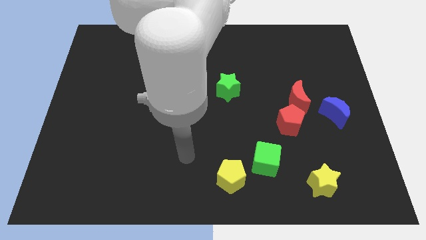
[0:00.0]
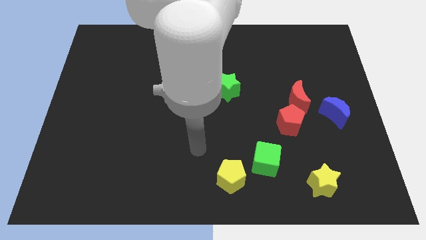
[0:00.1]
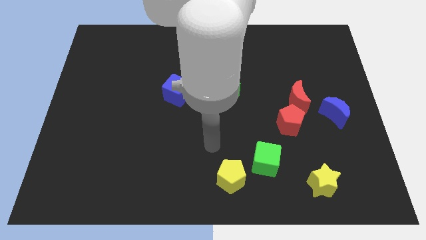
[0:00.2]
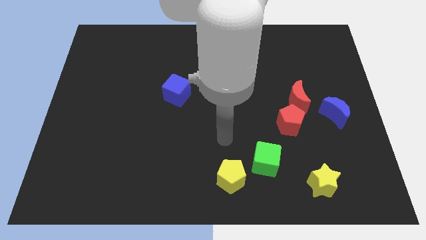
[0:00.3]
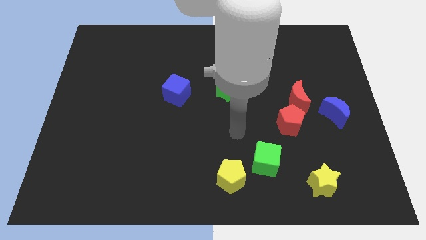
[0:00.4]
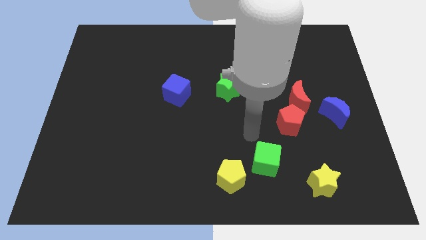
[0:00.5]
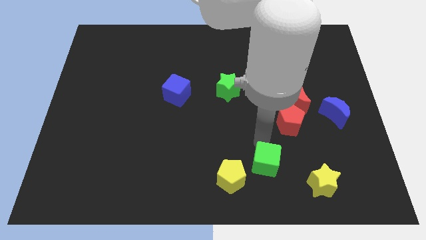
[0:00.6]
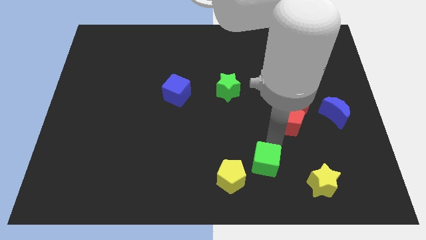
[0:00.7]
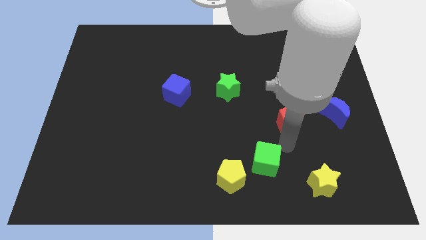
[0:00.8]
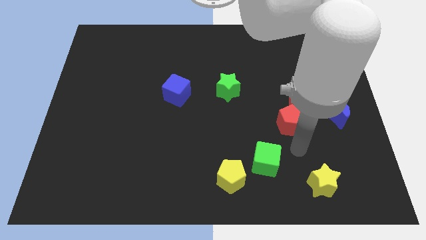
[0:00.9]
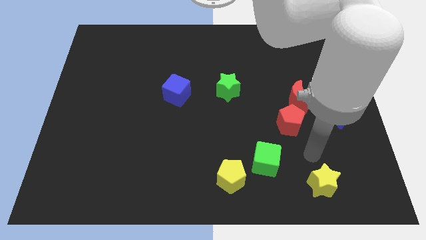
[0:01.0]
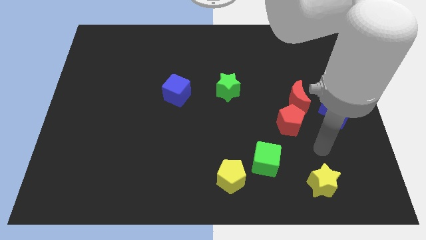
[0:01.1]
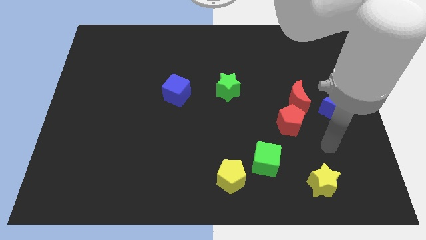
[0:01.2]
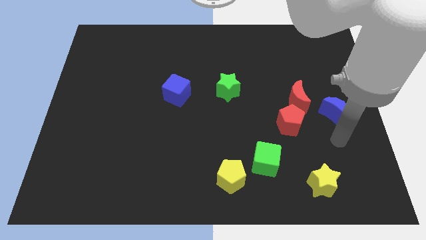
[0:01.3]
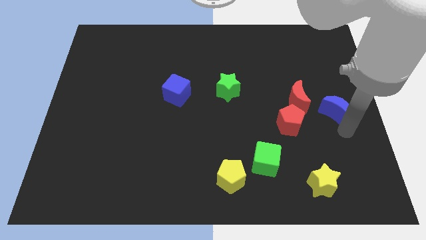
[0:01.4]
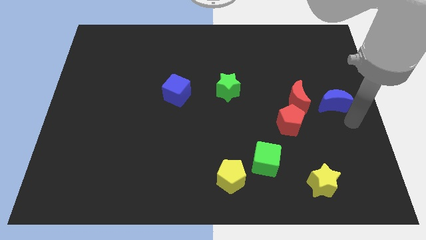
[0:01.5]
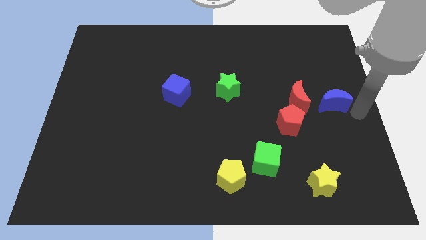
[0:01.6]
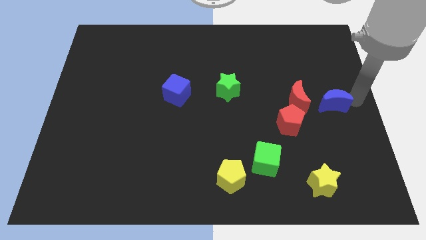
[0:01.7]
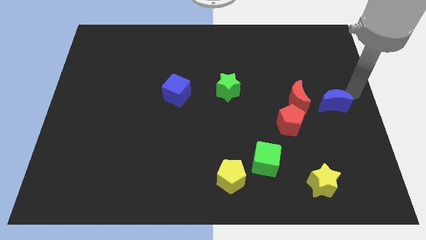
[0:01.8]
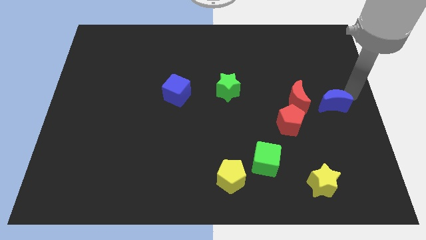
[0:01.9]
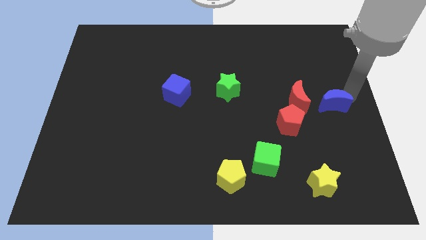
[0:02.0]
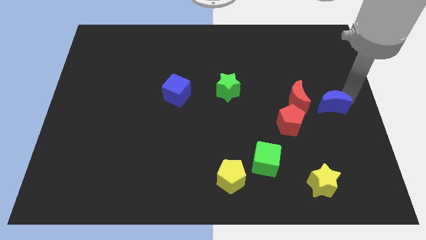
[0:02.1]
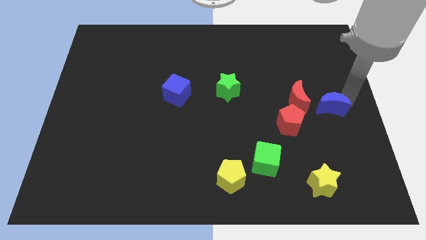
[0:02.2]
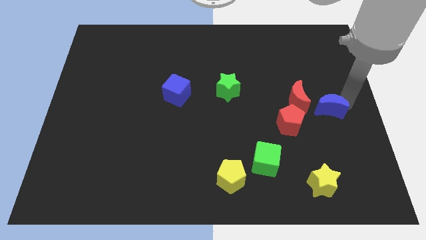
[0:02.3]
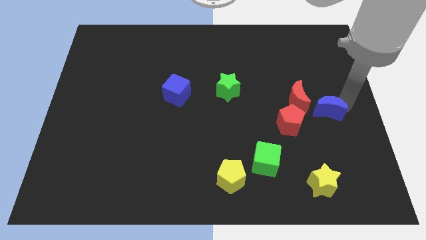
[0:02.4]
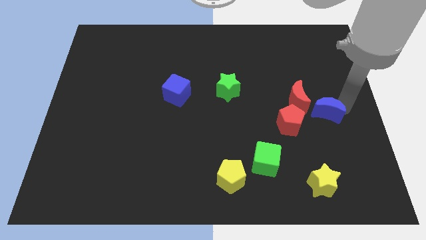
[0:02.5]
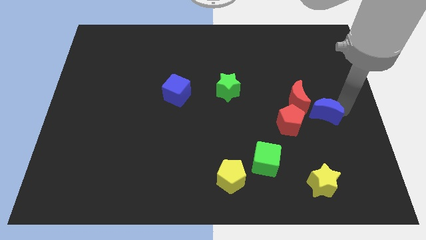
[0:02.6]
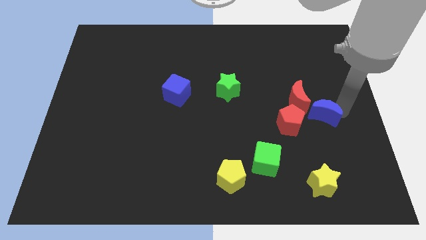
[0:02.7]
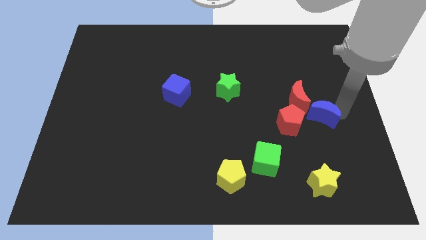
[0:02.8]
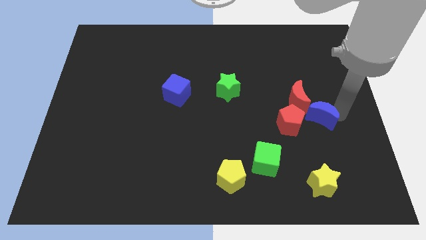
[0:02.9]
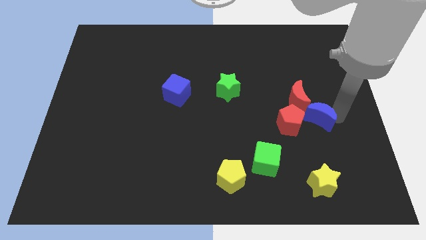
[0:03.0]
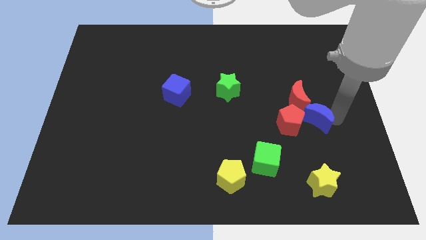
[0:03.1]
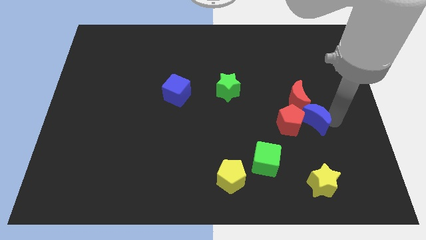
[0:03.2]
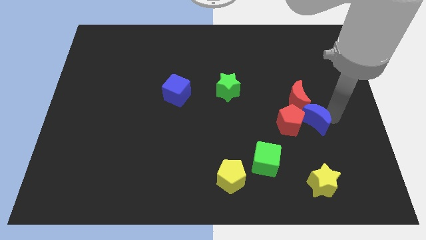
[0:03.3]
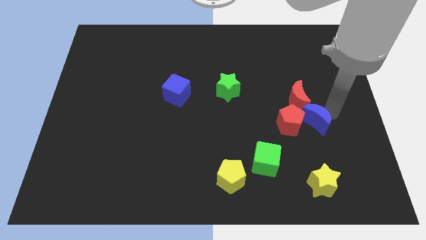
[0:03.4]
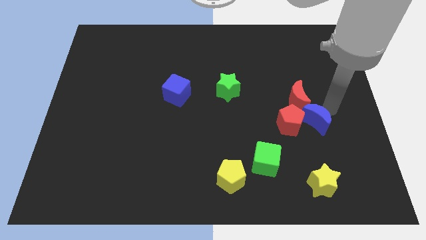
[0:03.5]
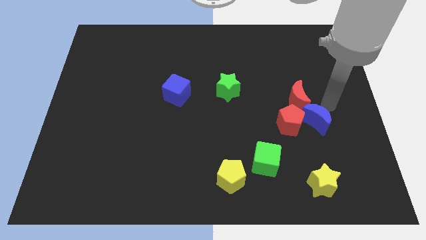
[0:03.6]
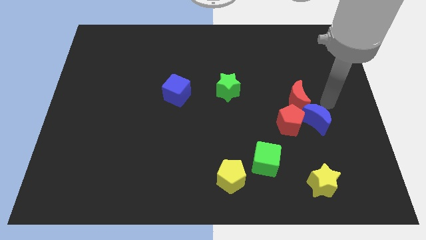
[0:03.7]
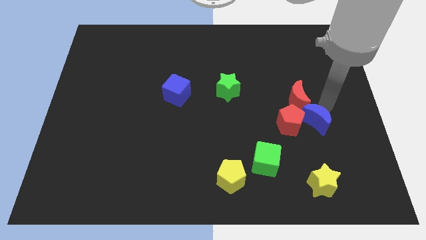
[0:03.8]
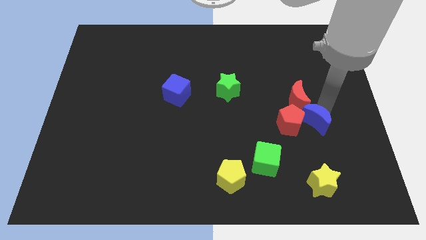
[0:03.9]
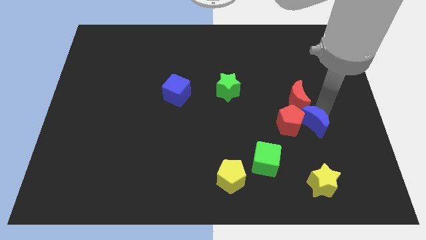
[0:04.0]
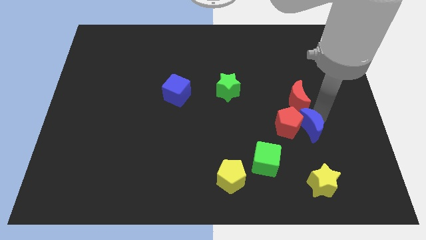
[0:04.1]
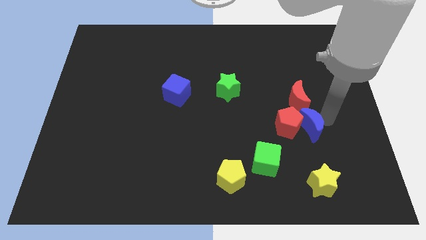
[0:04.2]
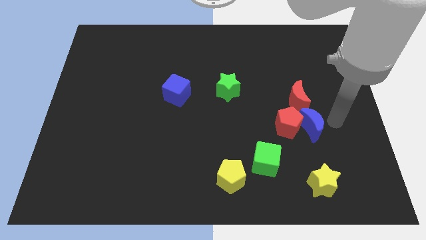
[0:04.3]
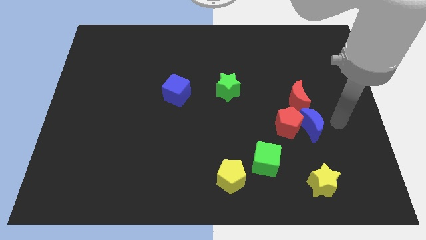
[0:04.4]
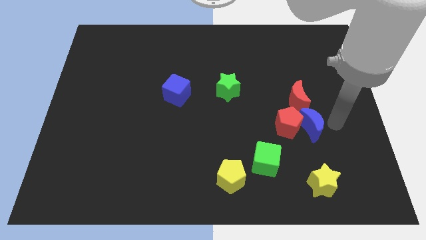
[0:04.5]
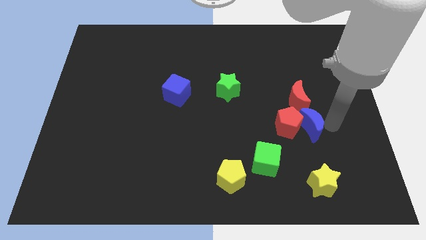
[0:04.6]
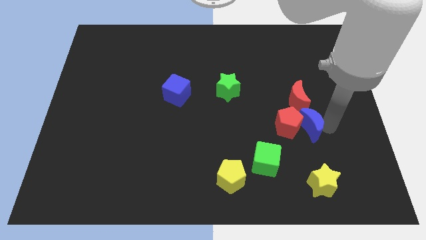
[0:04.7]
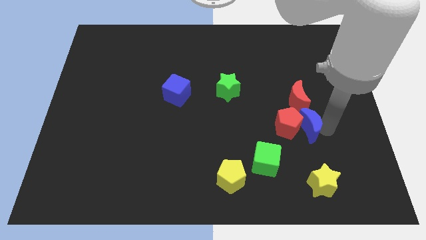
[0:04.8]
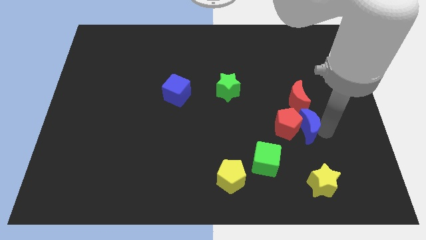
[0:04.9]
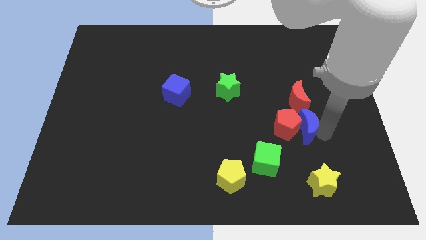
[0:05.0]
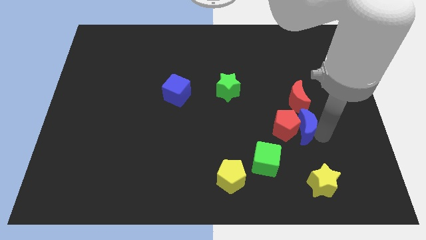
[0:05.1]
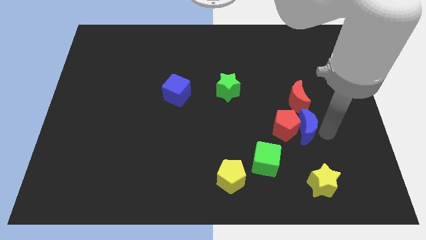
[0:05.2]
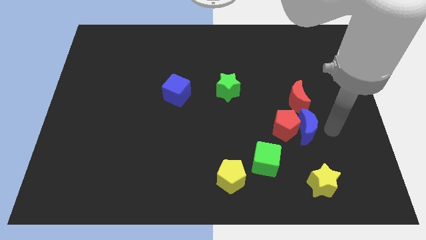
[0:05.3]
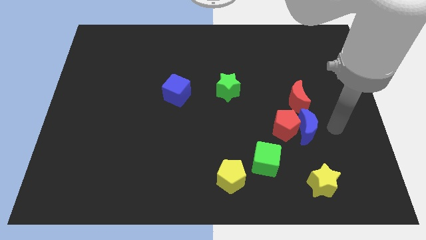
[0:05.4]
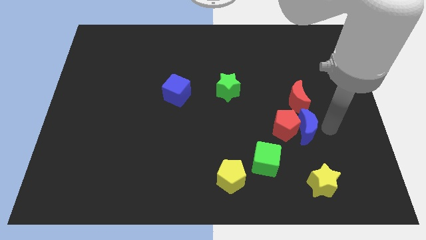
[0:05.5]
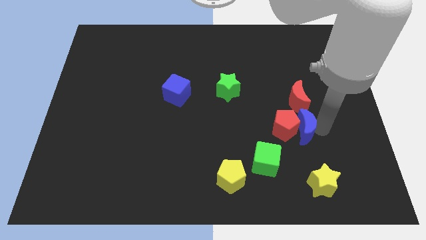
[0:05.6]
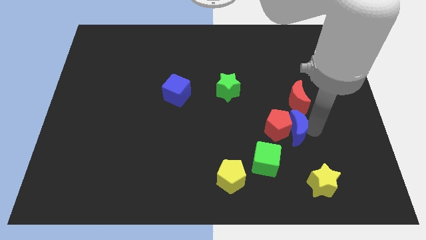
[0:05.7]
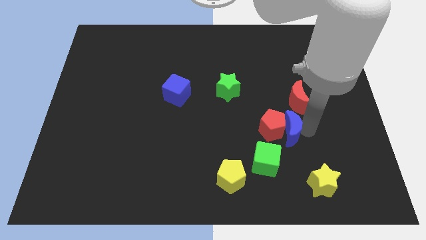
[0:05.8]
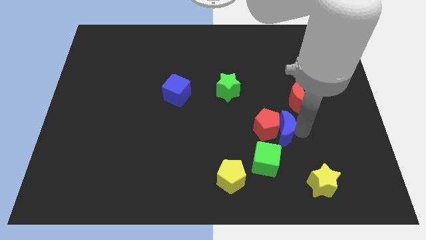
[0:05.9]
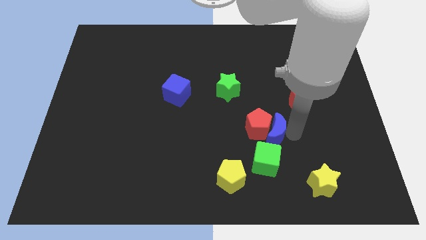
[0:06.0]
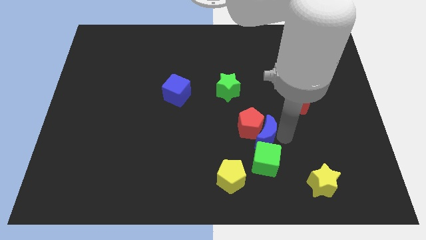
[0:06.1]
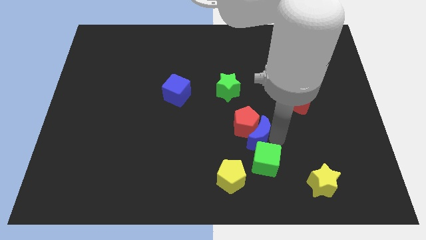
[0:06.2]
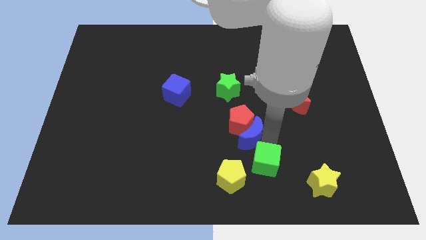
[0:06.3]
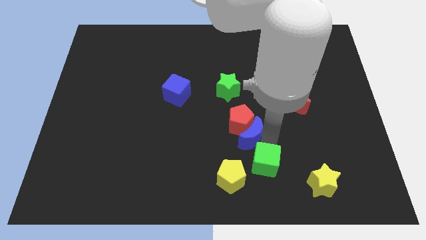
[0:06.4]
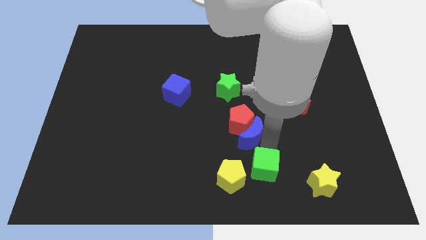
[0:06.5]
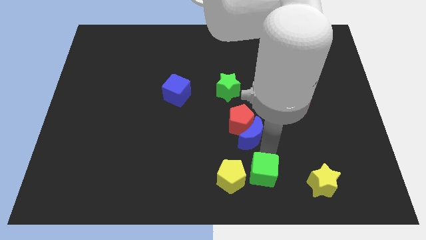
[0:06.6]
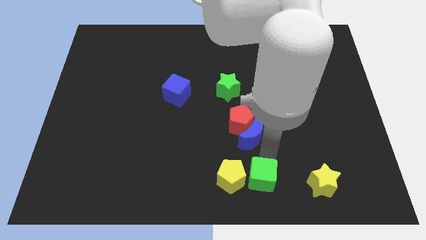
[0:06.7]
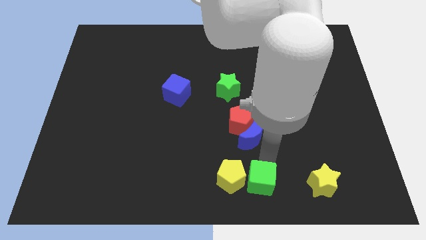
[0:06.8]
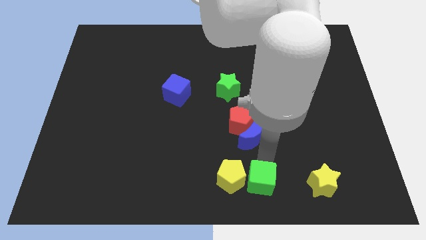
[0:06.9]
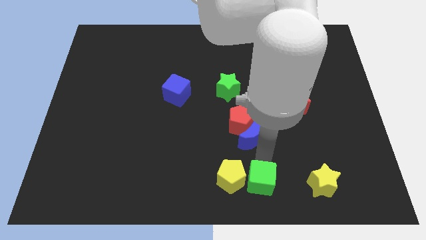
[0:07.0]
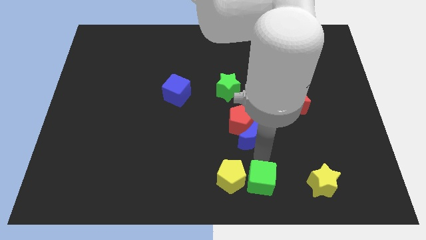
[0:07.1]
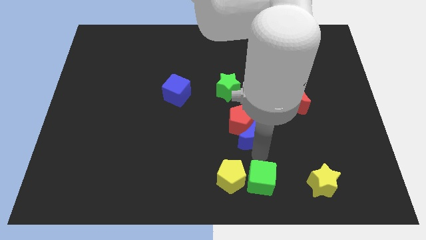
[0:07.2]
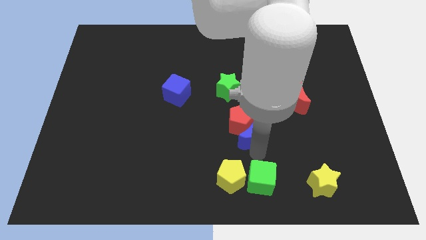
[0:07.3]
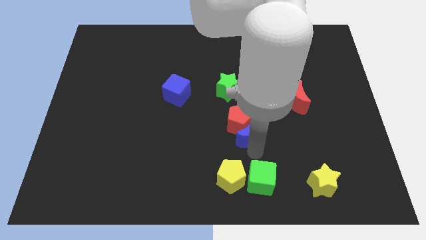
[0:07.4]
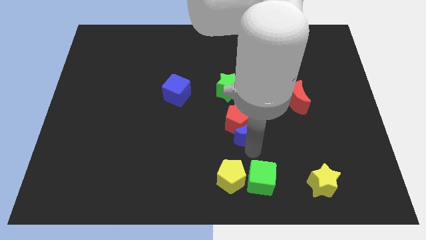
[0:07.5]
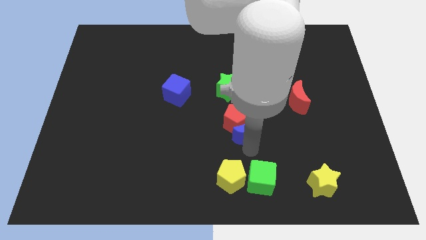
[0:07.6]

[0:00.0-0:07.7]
push the blue moon to the center
